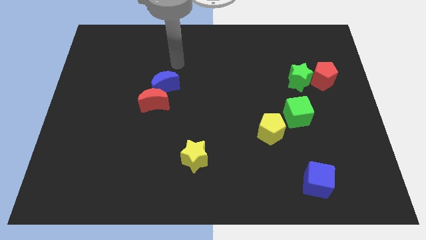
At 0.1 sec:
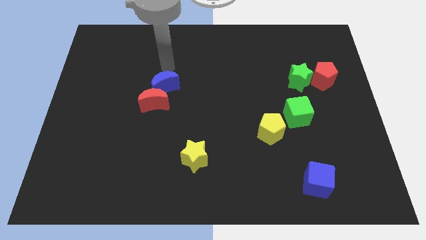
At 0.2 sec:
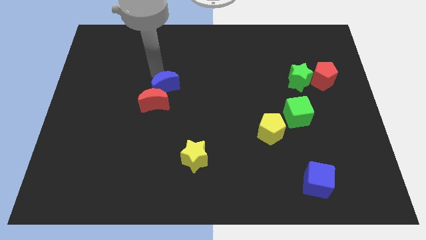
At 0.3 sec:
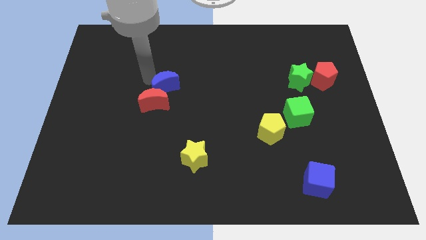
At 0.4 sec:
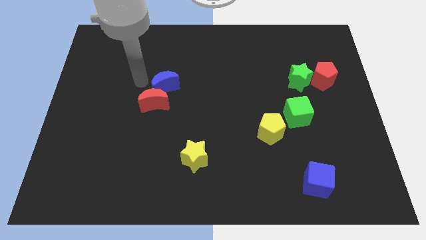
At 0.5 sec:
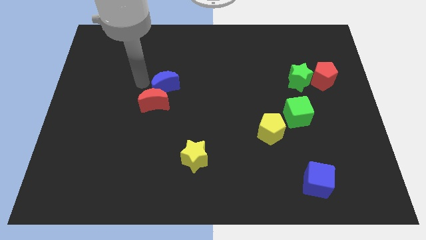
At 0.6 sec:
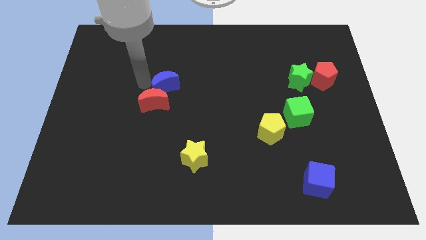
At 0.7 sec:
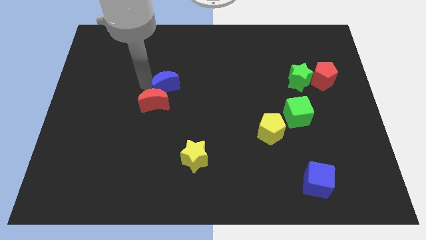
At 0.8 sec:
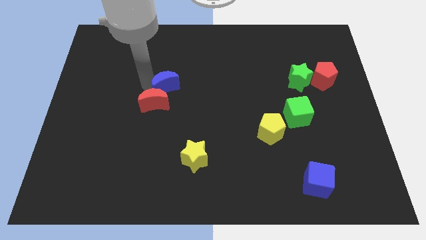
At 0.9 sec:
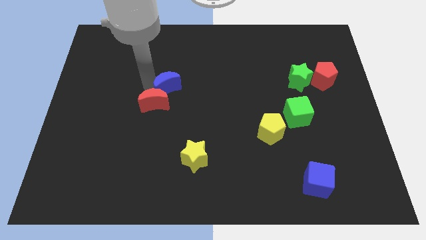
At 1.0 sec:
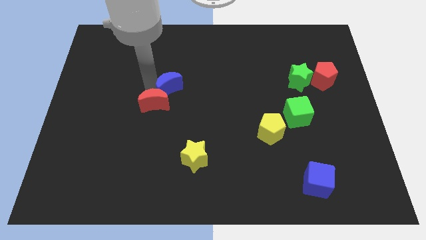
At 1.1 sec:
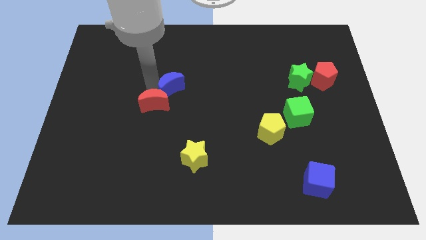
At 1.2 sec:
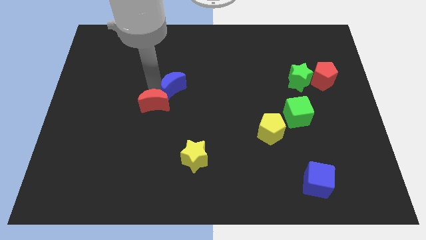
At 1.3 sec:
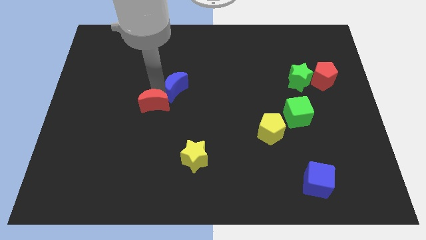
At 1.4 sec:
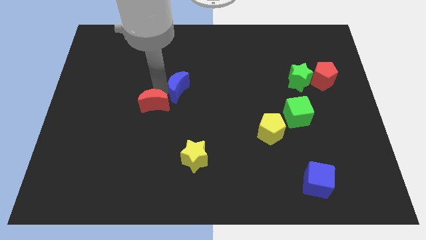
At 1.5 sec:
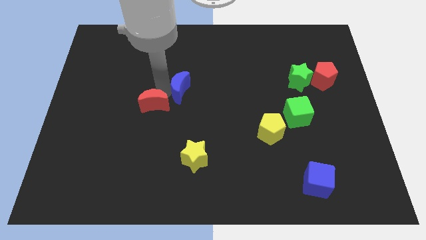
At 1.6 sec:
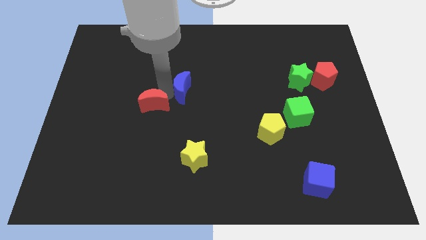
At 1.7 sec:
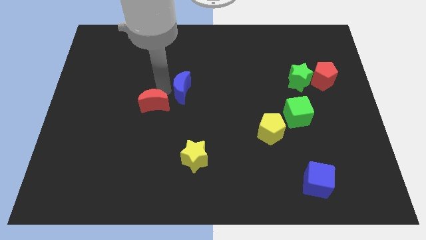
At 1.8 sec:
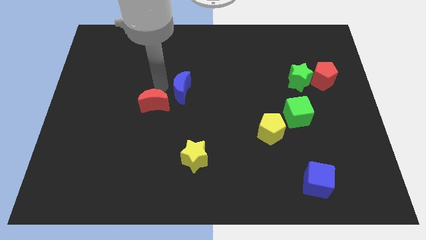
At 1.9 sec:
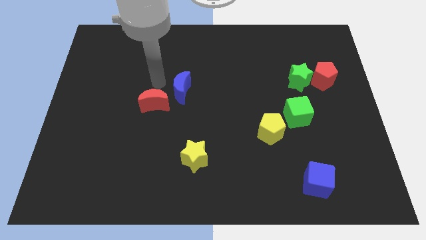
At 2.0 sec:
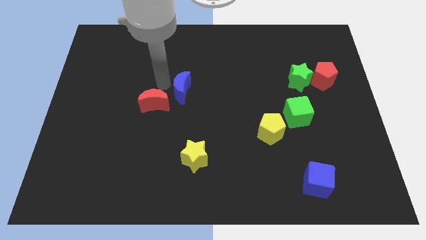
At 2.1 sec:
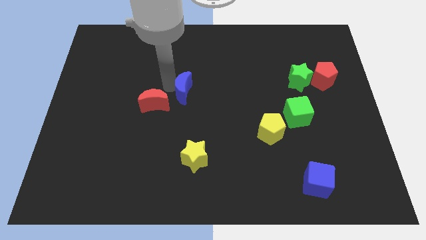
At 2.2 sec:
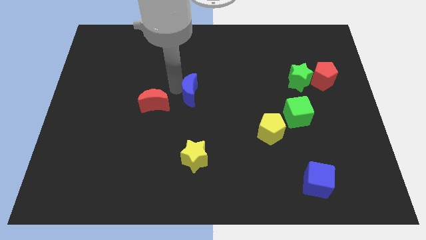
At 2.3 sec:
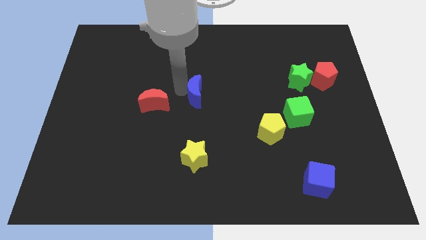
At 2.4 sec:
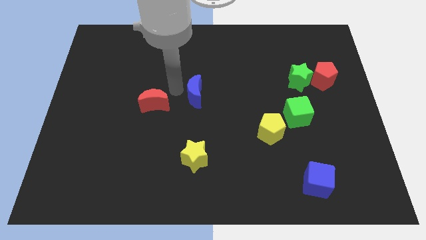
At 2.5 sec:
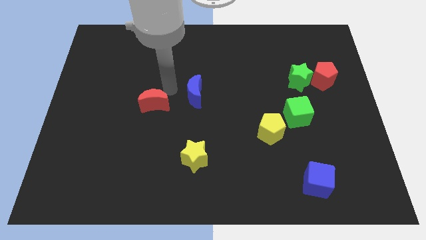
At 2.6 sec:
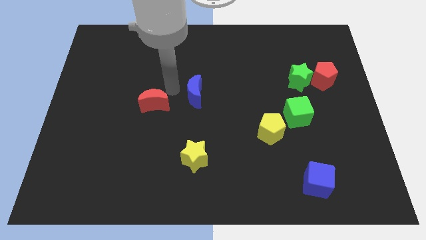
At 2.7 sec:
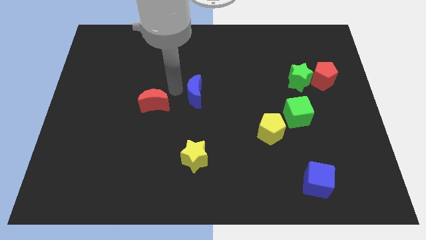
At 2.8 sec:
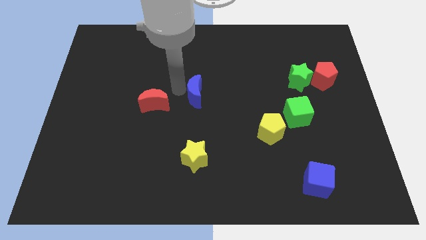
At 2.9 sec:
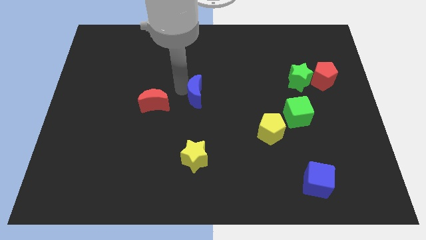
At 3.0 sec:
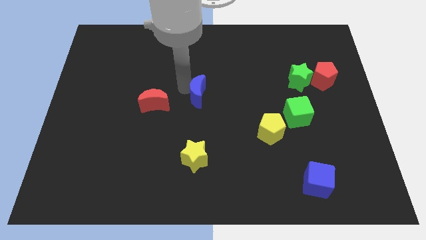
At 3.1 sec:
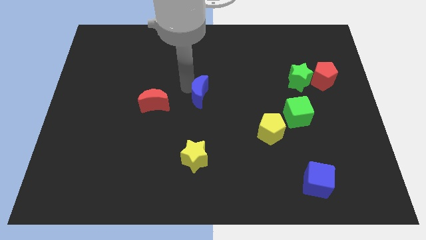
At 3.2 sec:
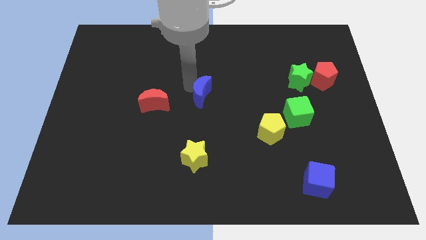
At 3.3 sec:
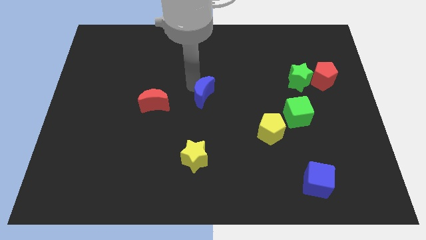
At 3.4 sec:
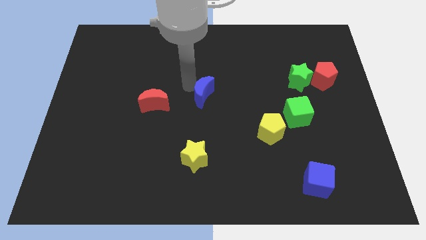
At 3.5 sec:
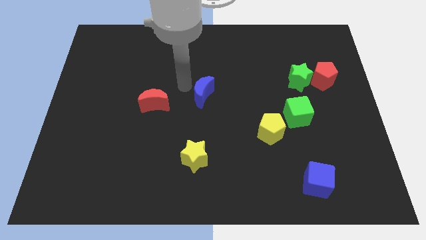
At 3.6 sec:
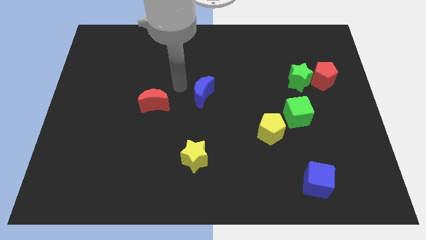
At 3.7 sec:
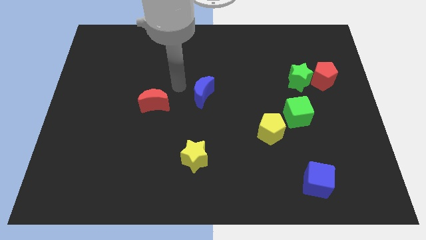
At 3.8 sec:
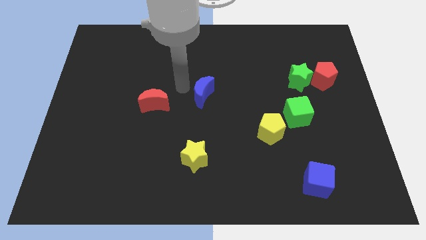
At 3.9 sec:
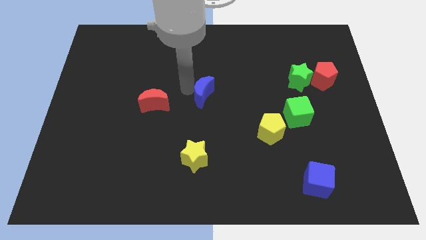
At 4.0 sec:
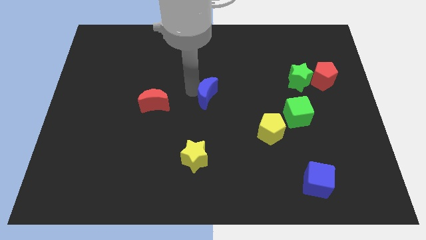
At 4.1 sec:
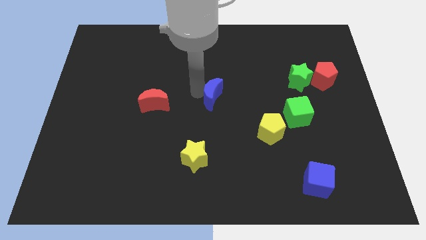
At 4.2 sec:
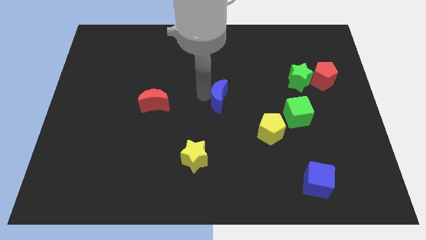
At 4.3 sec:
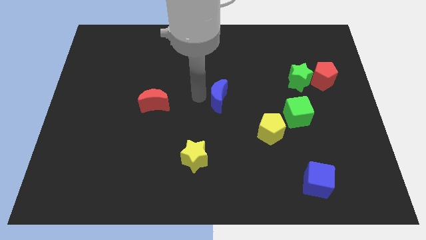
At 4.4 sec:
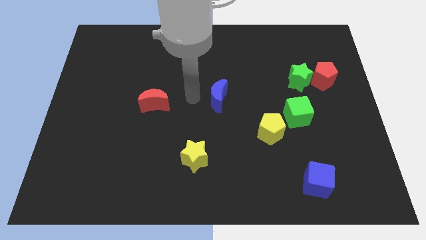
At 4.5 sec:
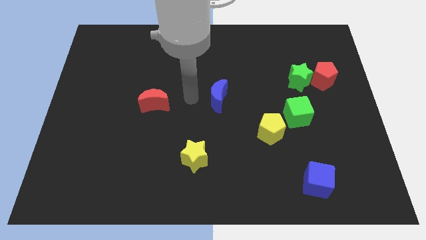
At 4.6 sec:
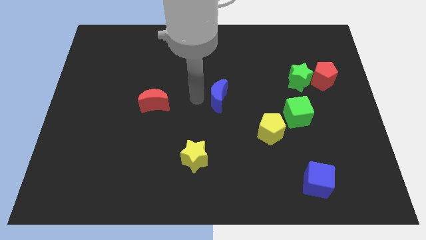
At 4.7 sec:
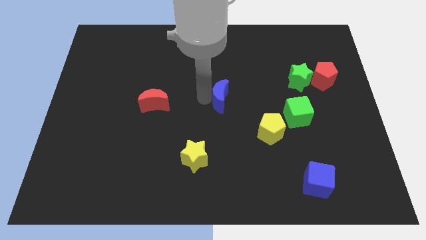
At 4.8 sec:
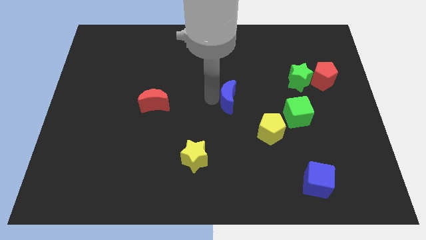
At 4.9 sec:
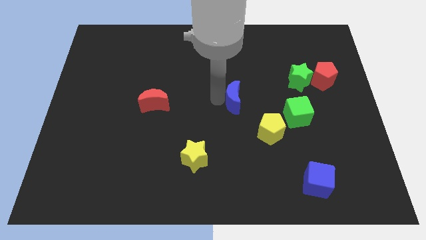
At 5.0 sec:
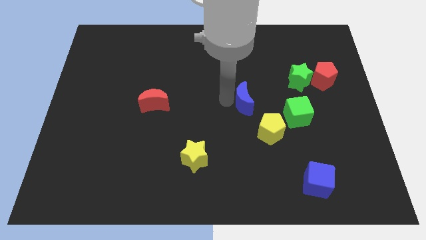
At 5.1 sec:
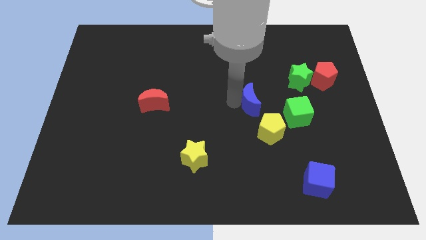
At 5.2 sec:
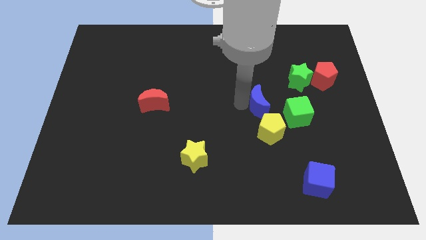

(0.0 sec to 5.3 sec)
put the blue moon to the top left of the green cube
